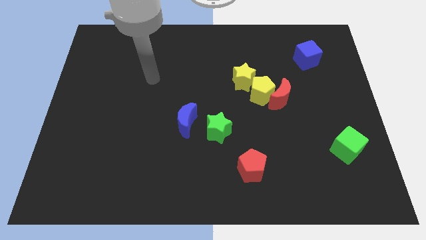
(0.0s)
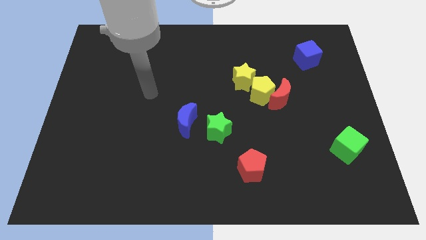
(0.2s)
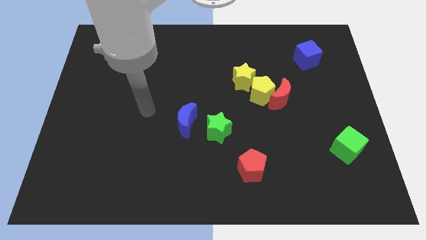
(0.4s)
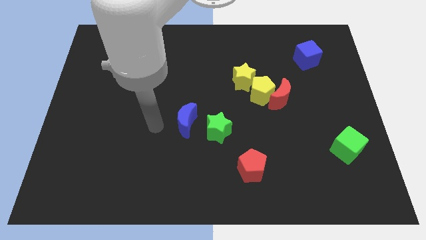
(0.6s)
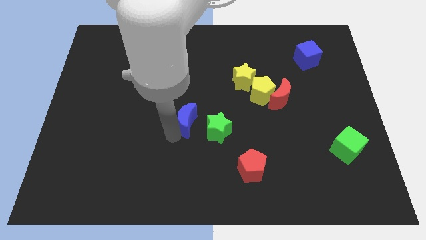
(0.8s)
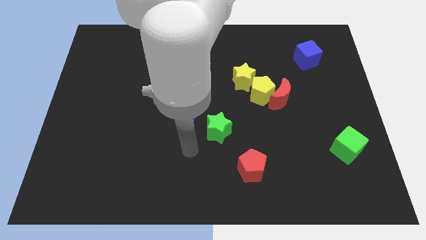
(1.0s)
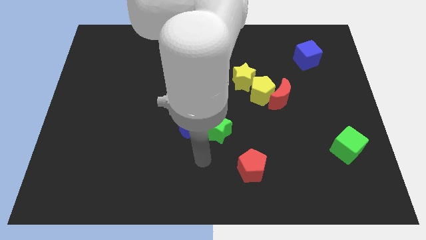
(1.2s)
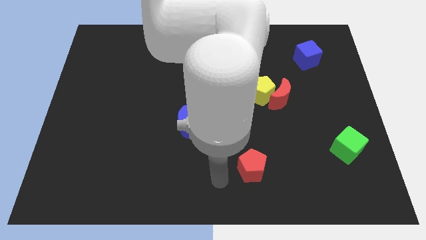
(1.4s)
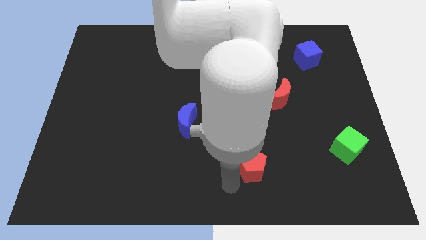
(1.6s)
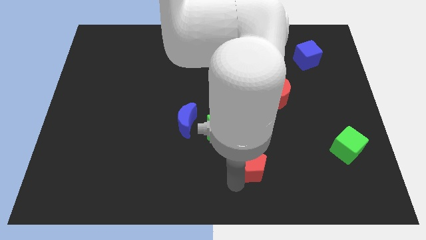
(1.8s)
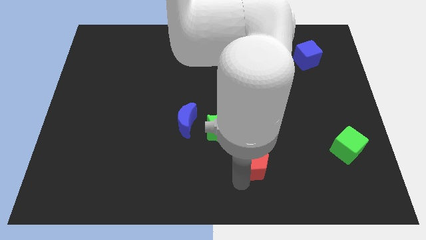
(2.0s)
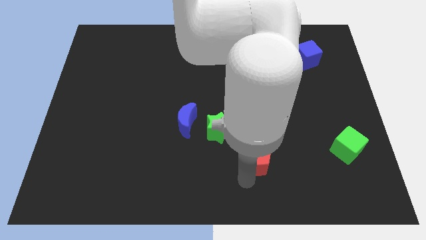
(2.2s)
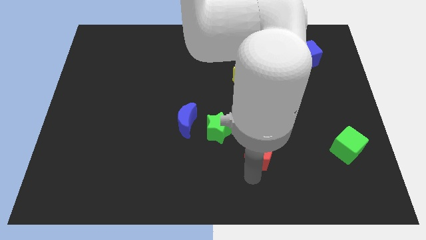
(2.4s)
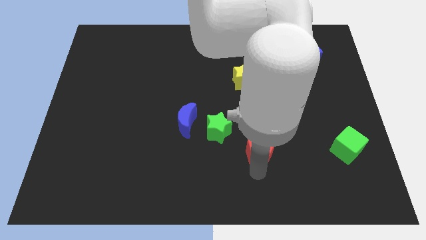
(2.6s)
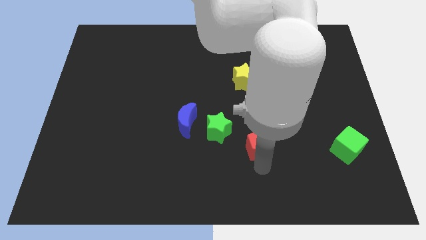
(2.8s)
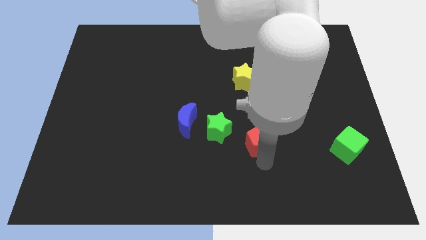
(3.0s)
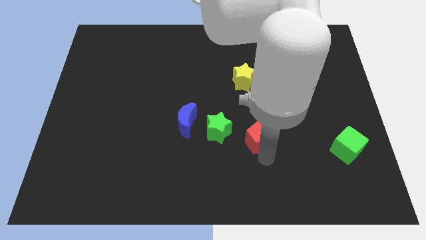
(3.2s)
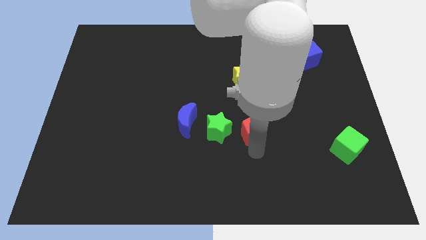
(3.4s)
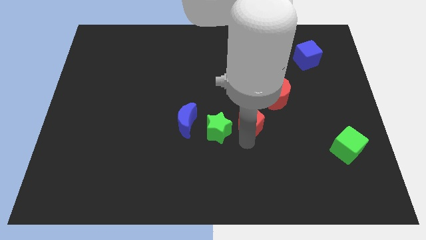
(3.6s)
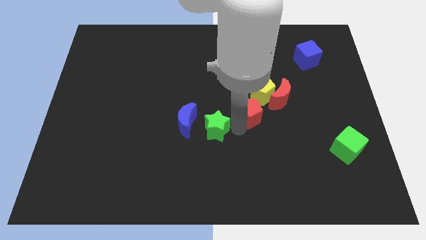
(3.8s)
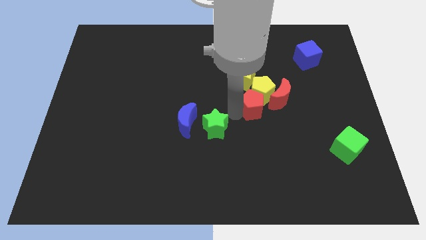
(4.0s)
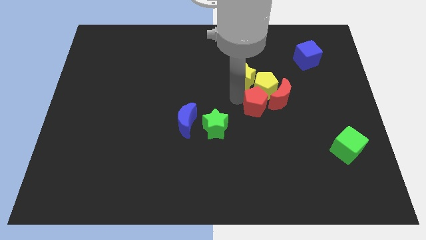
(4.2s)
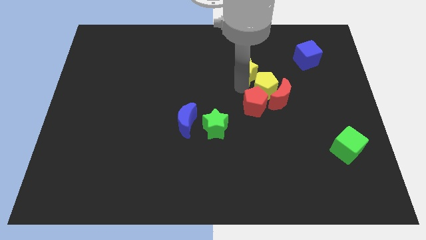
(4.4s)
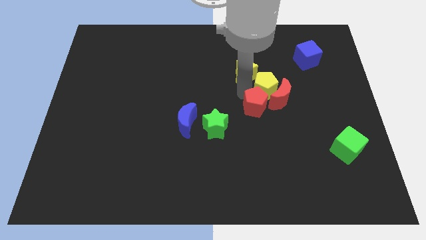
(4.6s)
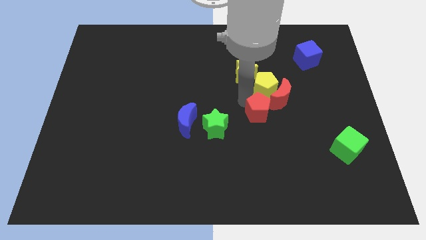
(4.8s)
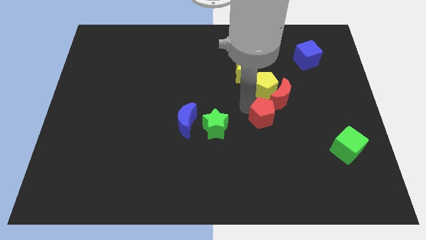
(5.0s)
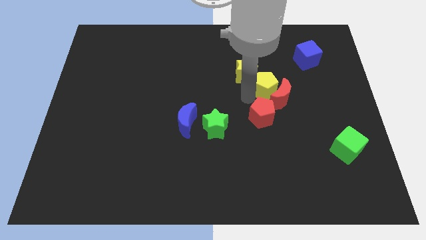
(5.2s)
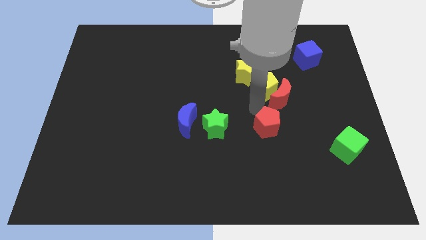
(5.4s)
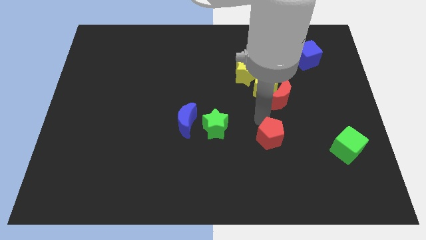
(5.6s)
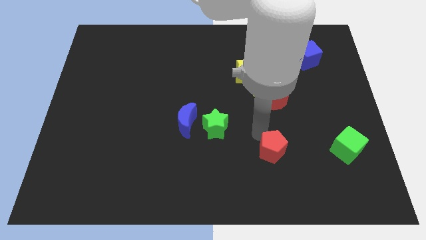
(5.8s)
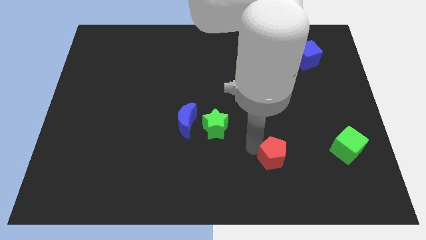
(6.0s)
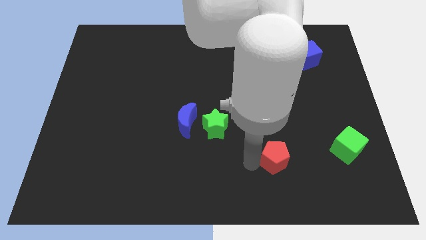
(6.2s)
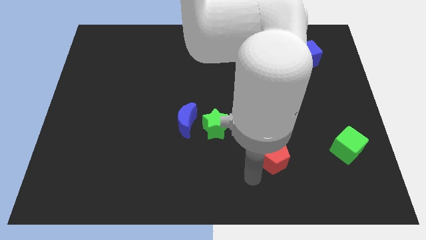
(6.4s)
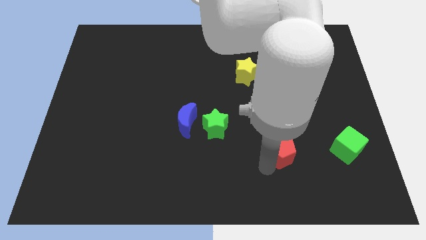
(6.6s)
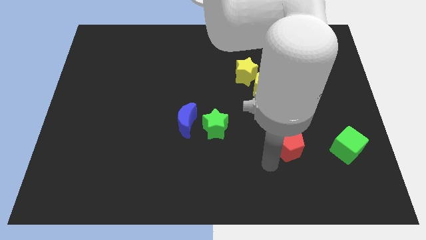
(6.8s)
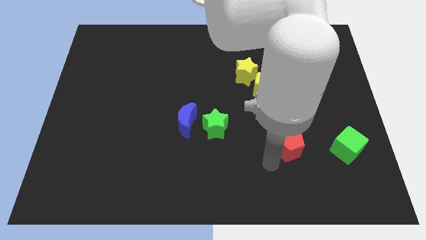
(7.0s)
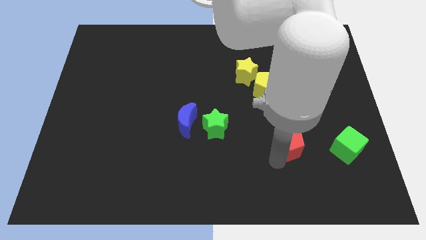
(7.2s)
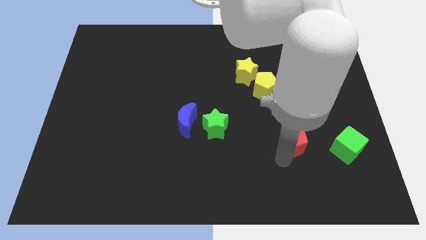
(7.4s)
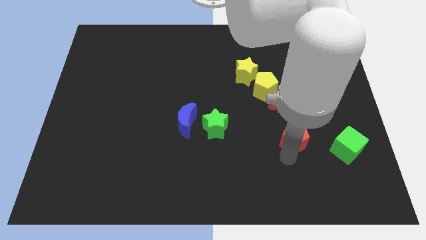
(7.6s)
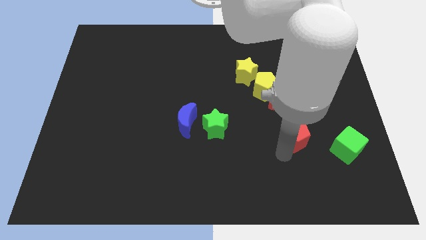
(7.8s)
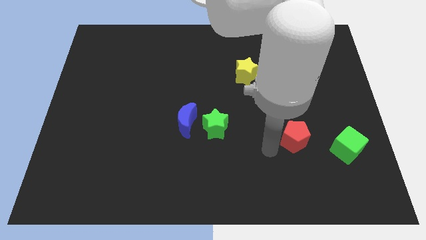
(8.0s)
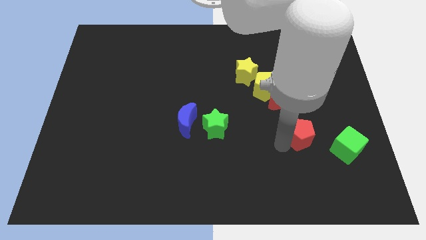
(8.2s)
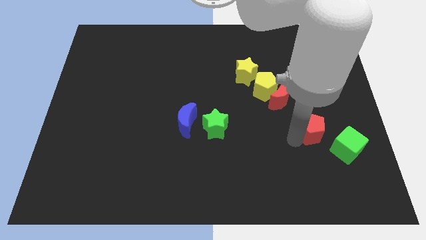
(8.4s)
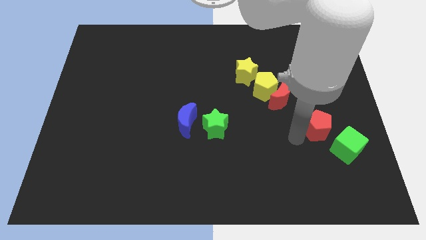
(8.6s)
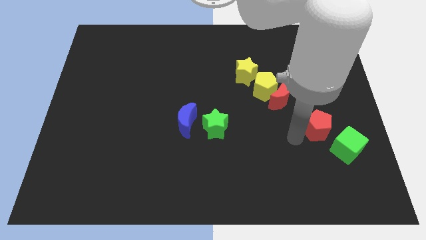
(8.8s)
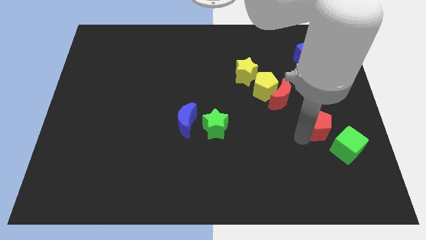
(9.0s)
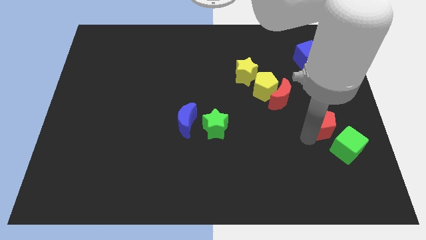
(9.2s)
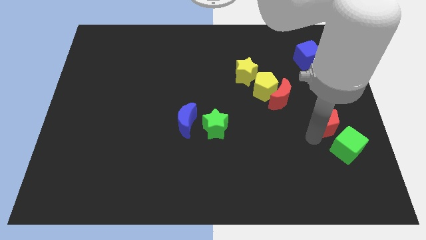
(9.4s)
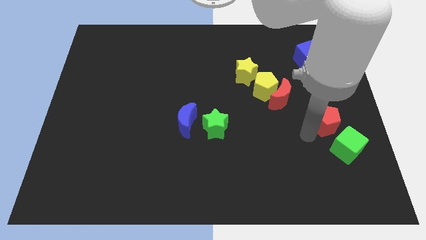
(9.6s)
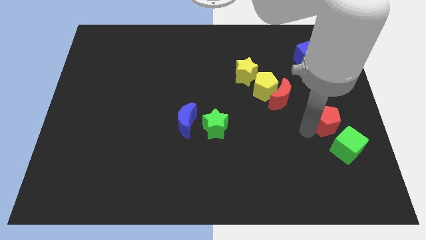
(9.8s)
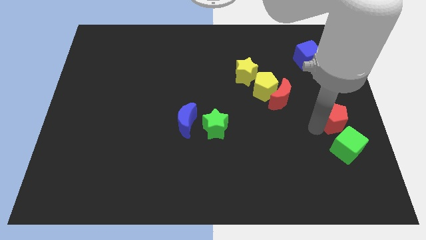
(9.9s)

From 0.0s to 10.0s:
push the red pentagon to the right side

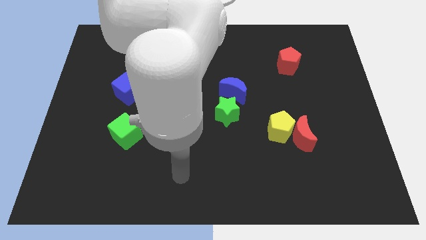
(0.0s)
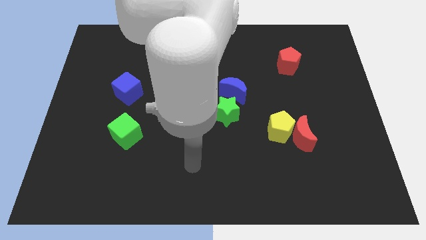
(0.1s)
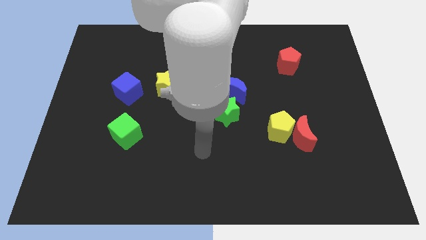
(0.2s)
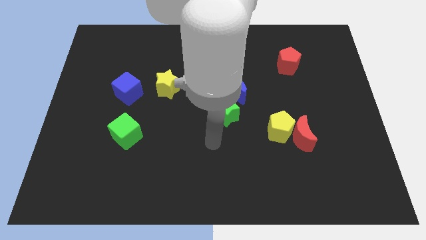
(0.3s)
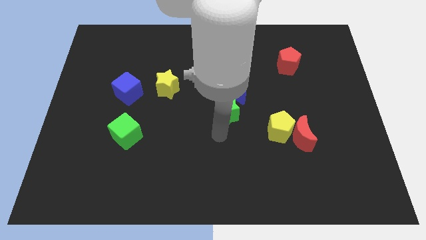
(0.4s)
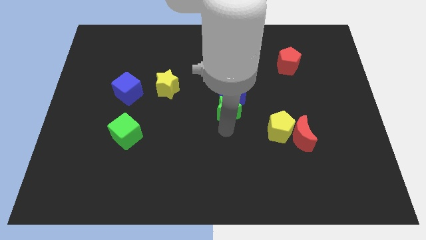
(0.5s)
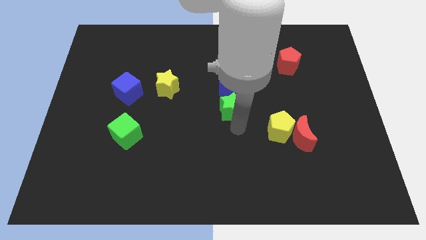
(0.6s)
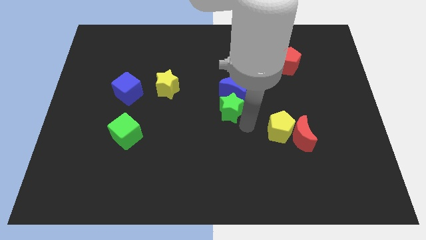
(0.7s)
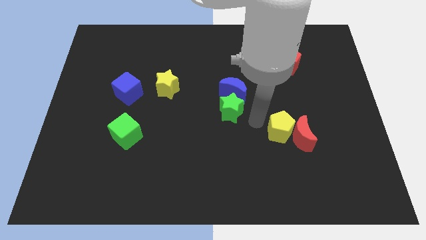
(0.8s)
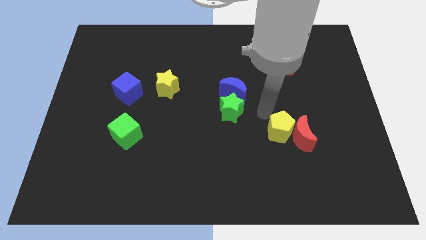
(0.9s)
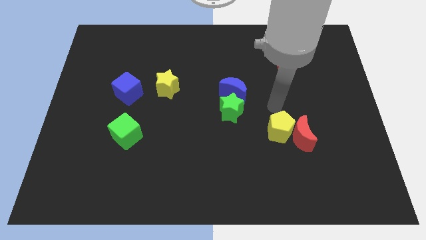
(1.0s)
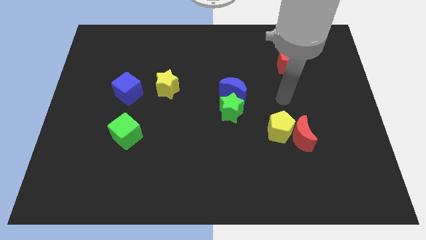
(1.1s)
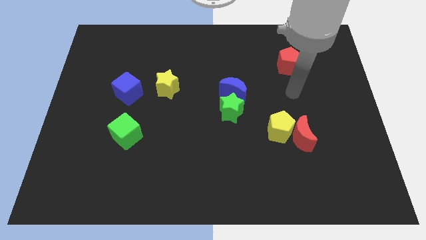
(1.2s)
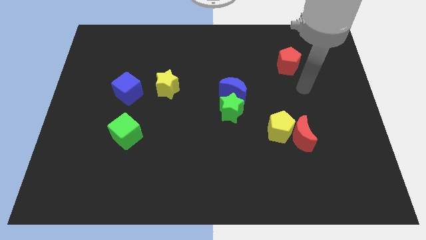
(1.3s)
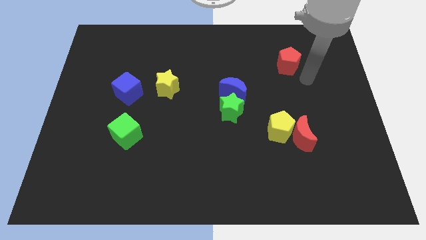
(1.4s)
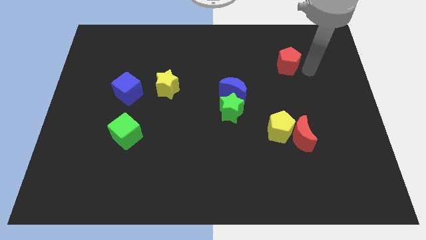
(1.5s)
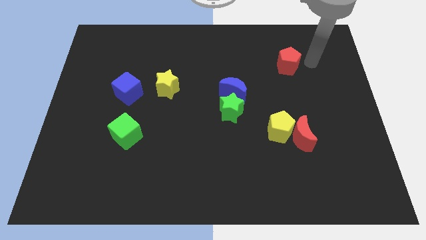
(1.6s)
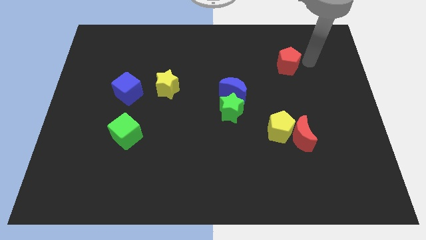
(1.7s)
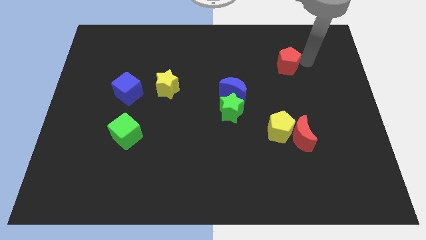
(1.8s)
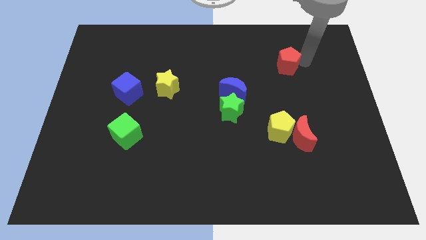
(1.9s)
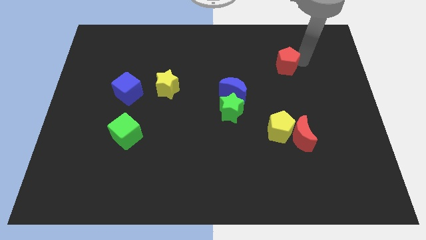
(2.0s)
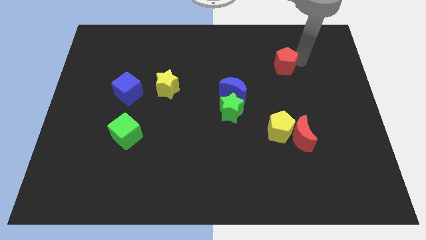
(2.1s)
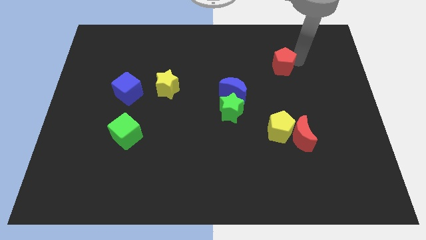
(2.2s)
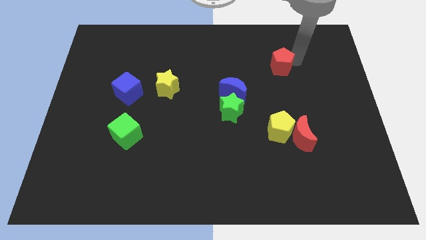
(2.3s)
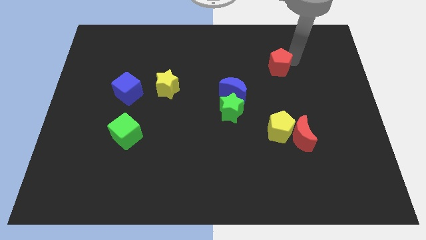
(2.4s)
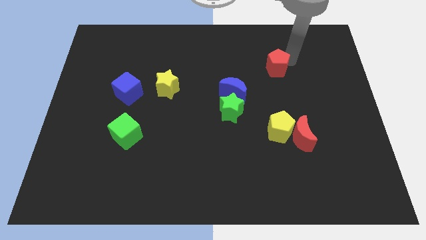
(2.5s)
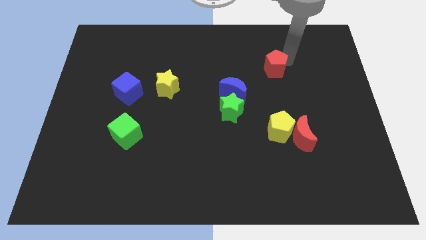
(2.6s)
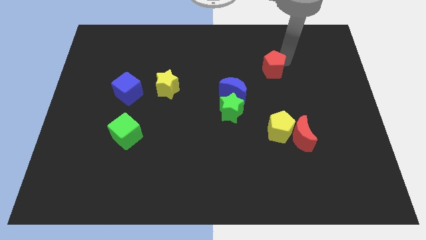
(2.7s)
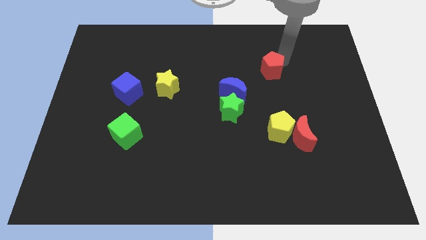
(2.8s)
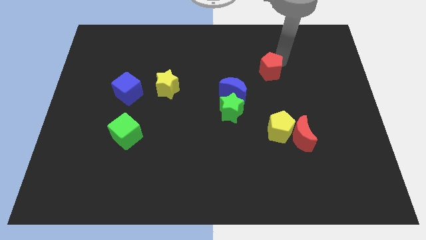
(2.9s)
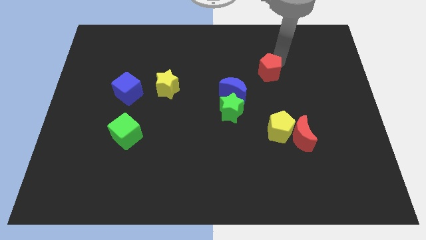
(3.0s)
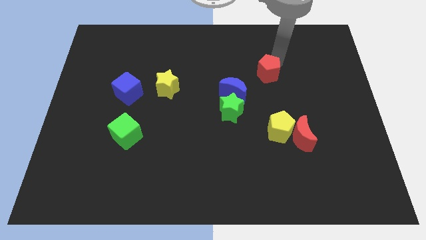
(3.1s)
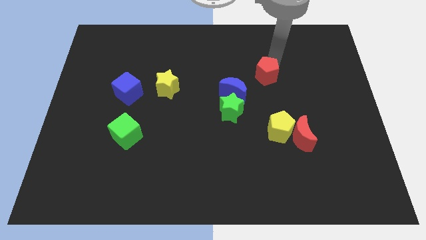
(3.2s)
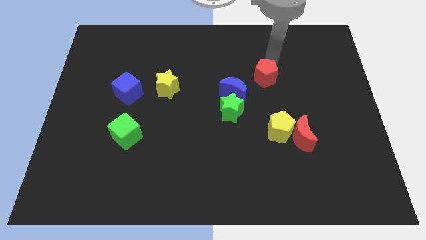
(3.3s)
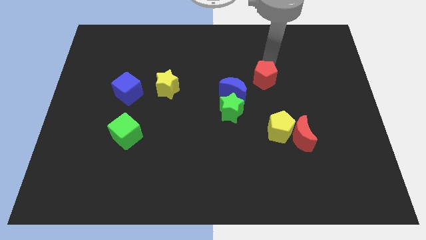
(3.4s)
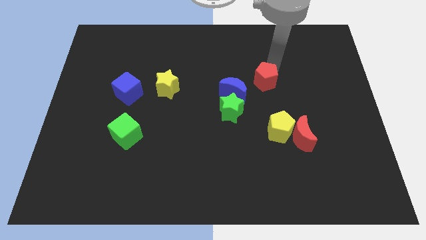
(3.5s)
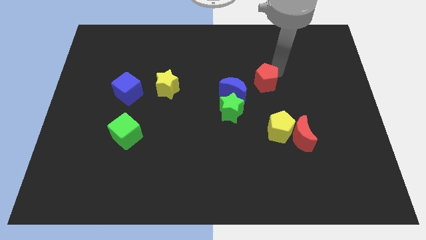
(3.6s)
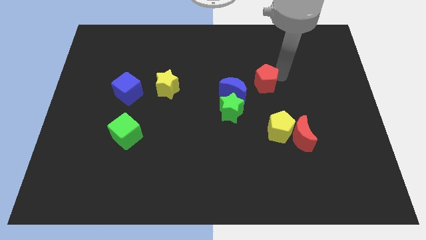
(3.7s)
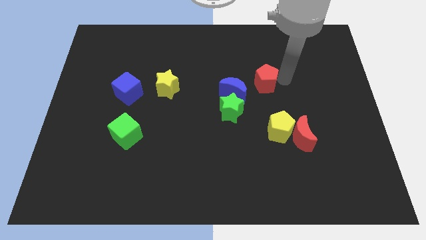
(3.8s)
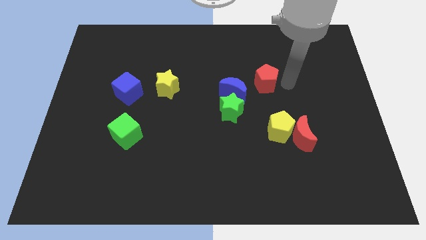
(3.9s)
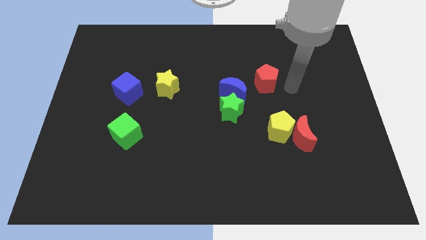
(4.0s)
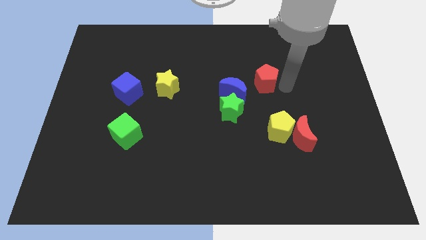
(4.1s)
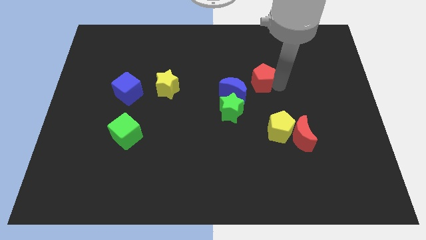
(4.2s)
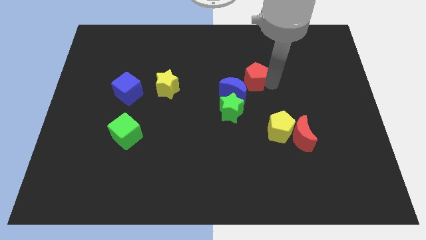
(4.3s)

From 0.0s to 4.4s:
put the red pentagon to the middle of the board
